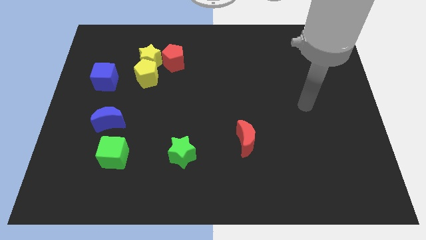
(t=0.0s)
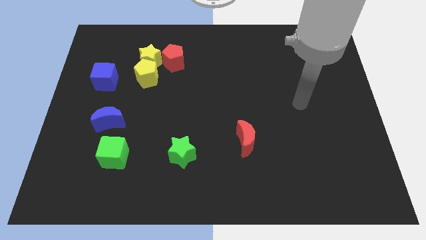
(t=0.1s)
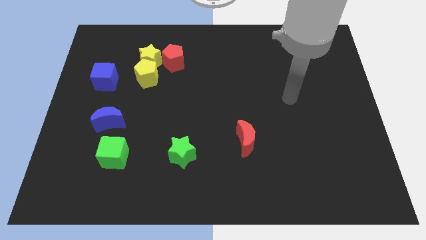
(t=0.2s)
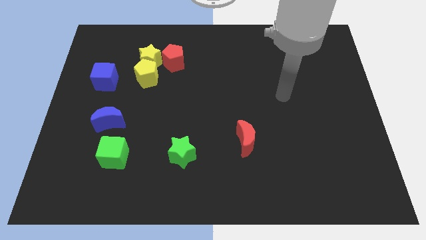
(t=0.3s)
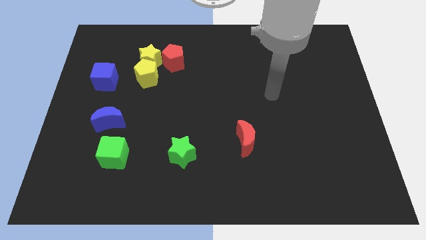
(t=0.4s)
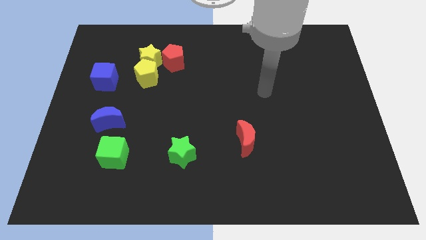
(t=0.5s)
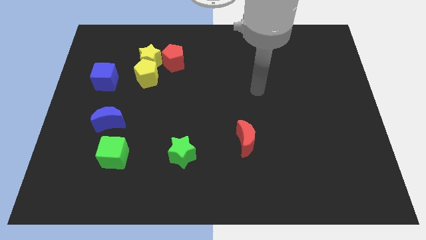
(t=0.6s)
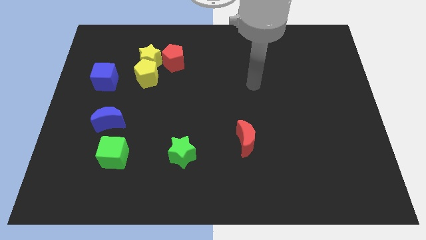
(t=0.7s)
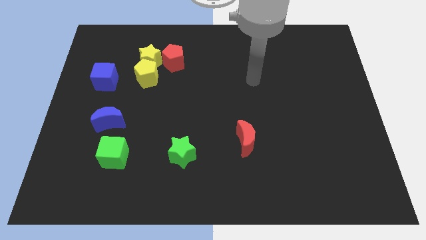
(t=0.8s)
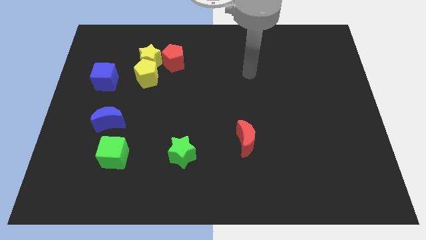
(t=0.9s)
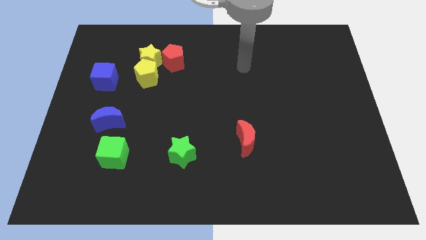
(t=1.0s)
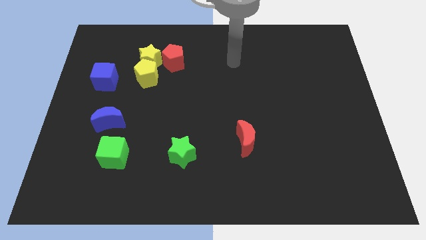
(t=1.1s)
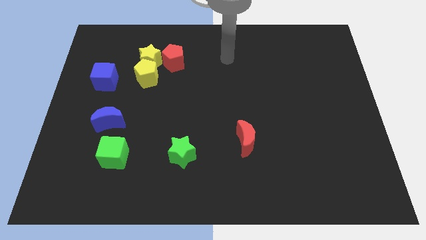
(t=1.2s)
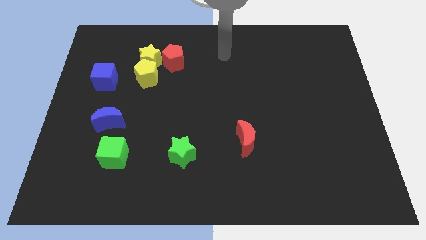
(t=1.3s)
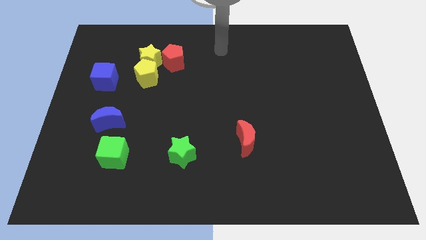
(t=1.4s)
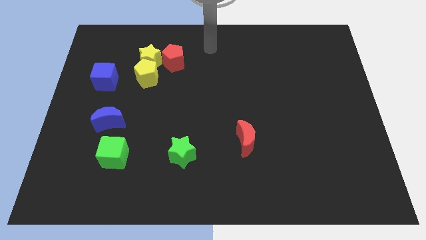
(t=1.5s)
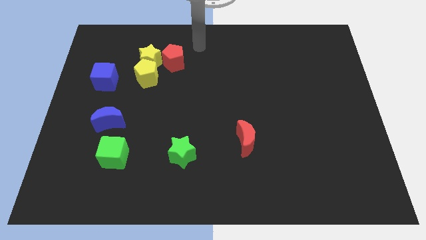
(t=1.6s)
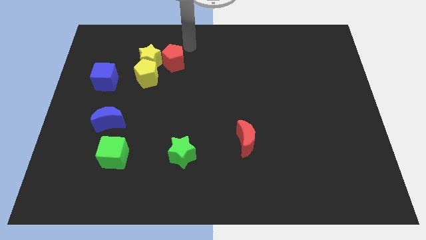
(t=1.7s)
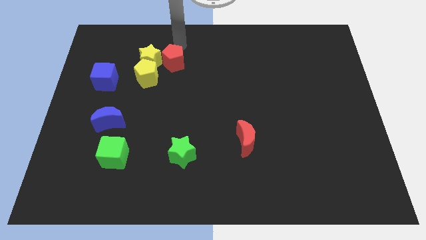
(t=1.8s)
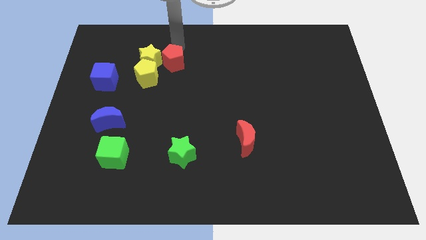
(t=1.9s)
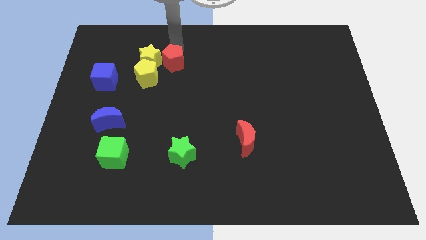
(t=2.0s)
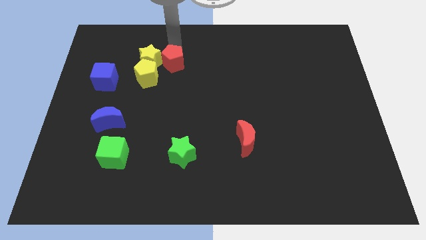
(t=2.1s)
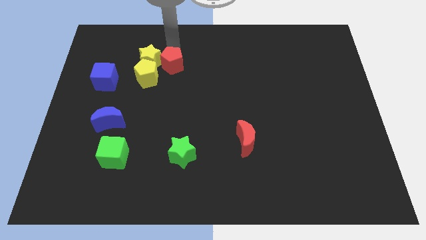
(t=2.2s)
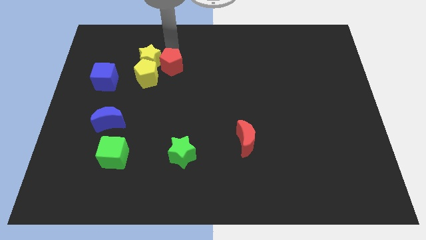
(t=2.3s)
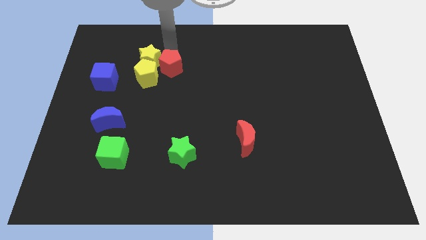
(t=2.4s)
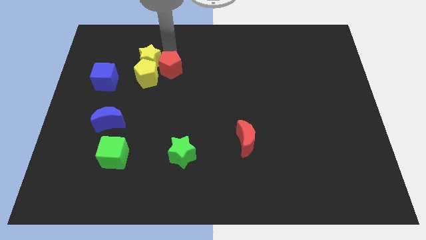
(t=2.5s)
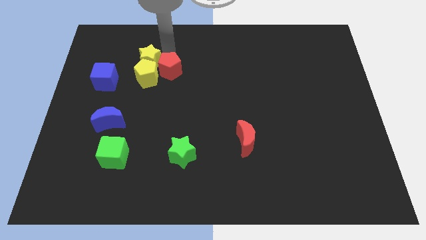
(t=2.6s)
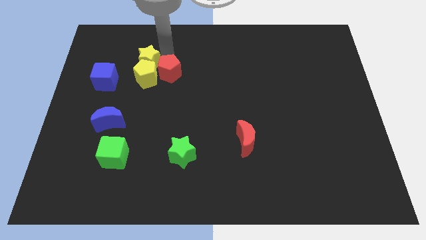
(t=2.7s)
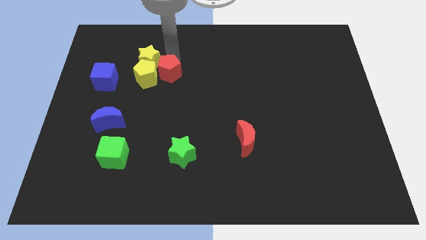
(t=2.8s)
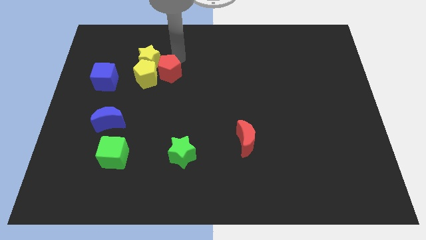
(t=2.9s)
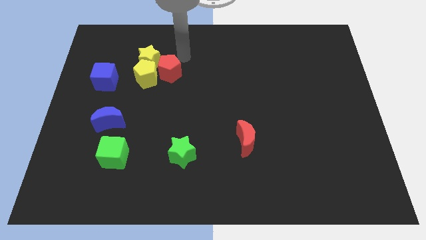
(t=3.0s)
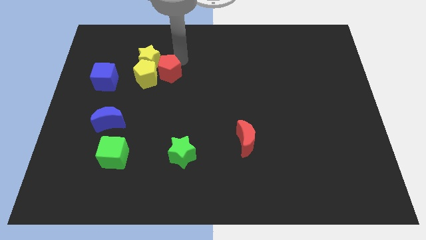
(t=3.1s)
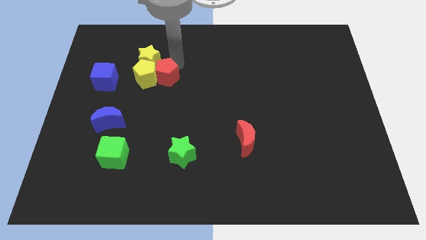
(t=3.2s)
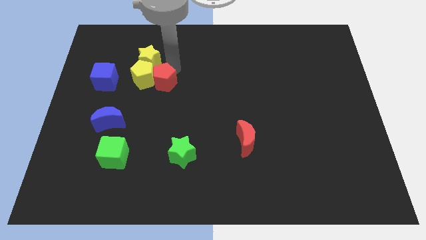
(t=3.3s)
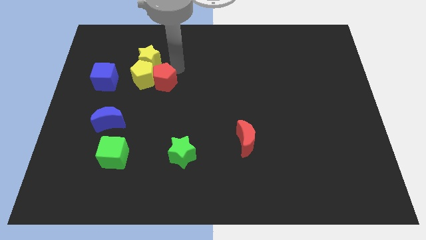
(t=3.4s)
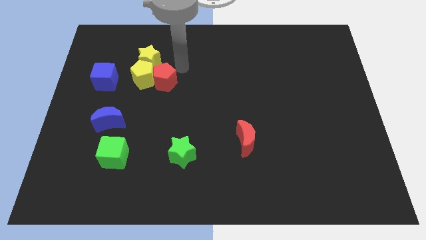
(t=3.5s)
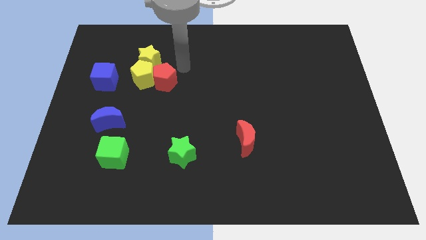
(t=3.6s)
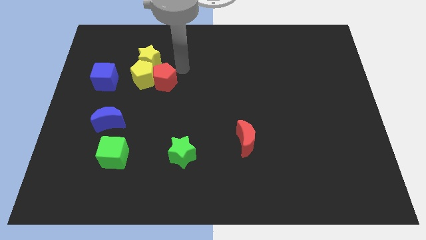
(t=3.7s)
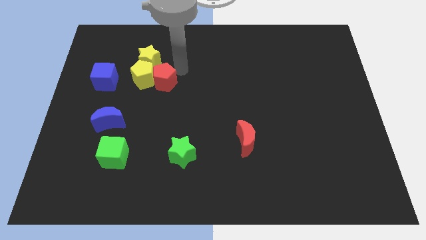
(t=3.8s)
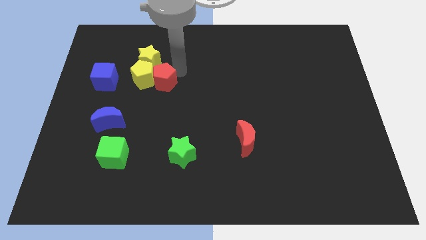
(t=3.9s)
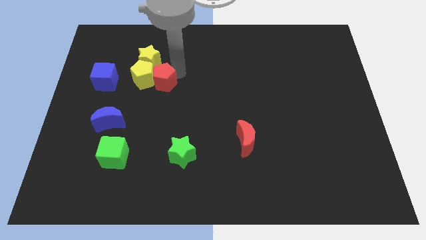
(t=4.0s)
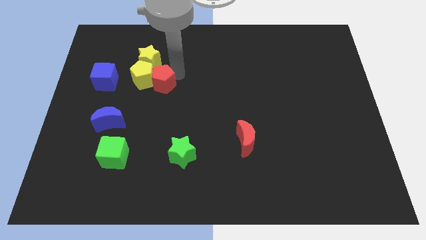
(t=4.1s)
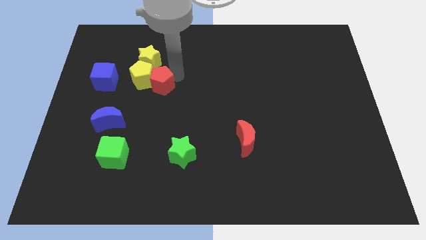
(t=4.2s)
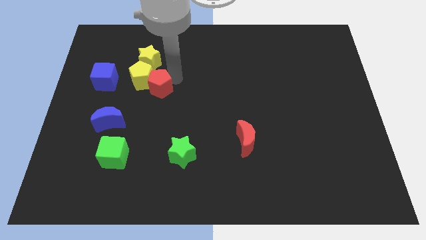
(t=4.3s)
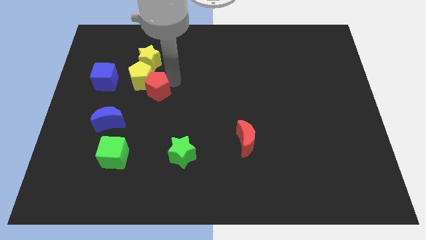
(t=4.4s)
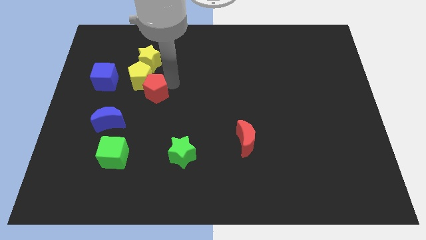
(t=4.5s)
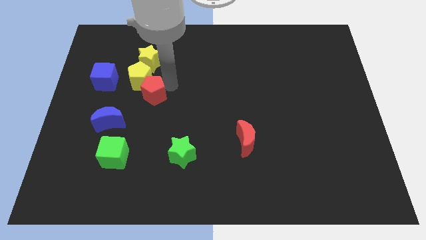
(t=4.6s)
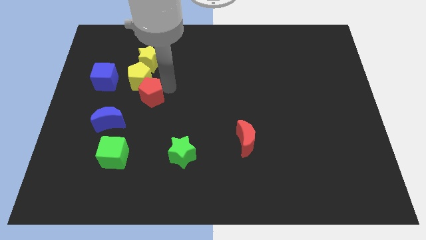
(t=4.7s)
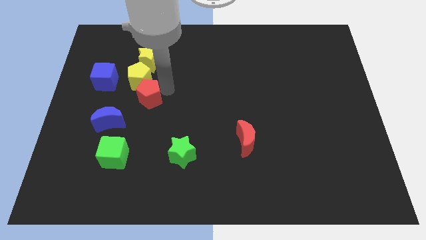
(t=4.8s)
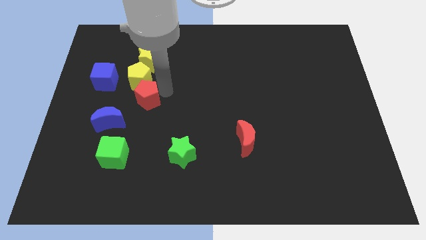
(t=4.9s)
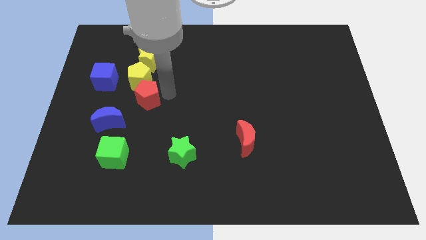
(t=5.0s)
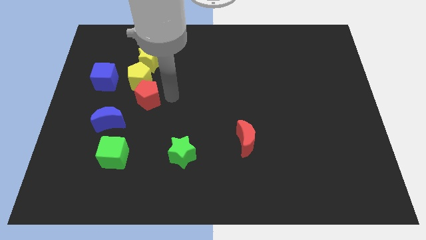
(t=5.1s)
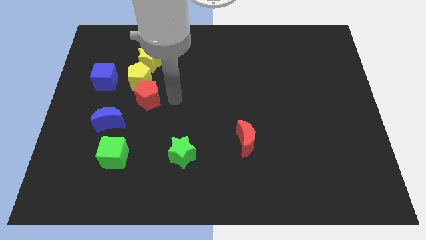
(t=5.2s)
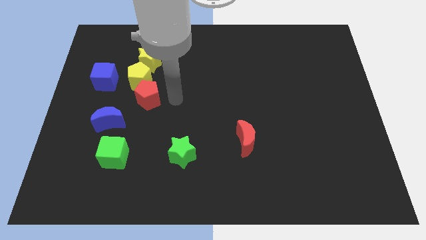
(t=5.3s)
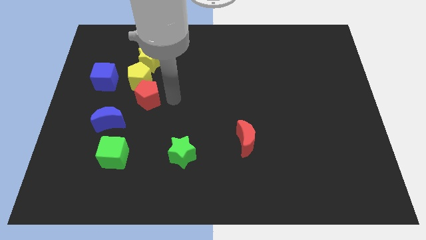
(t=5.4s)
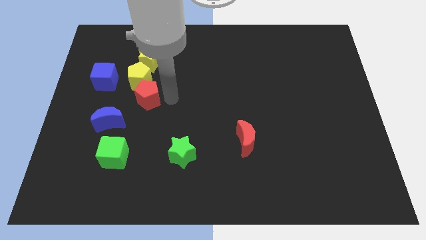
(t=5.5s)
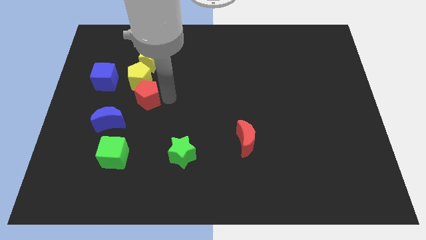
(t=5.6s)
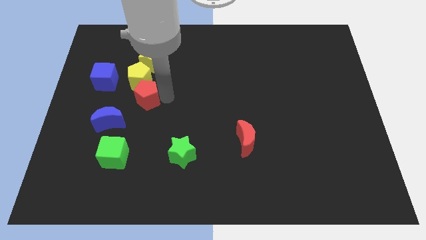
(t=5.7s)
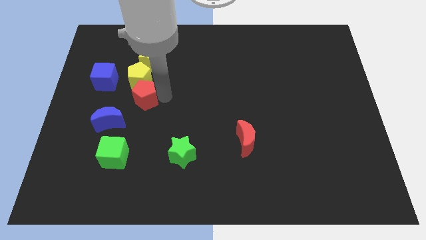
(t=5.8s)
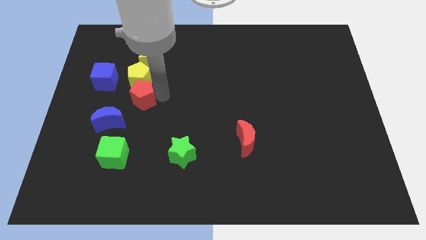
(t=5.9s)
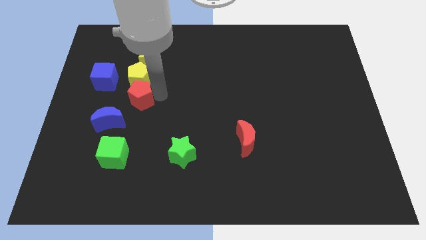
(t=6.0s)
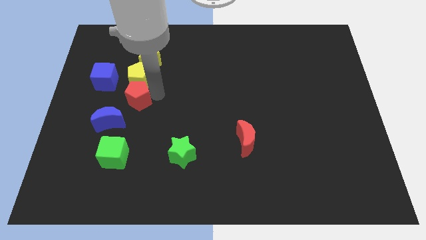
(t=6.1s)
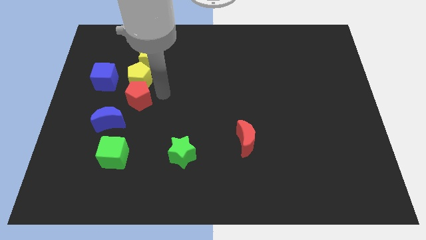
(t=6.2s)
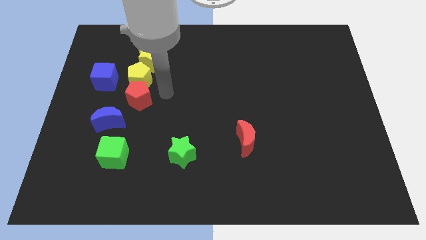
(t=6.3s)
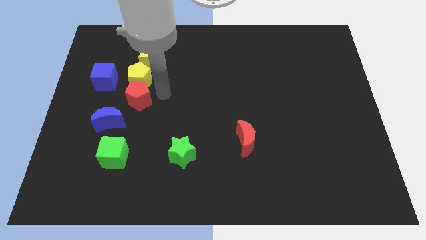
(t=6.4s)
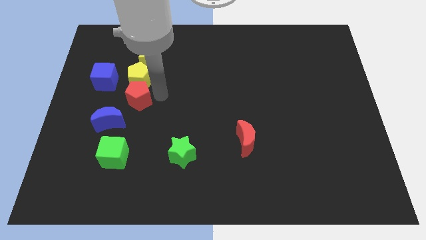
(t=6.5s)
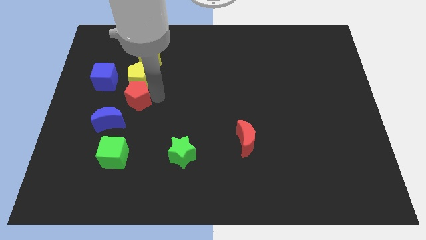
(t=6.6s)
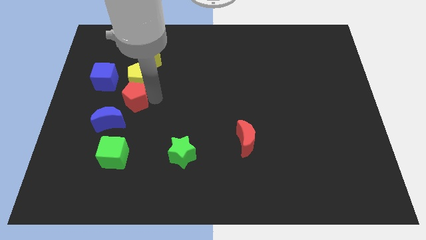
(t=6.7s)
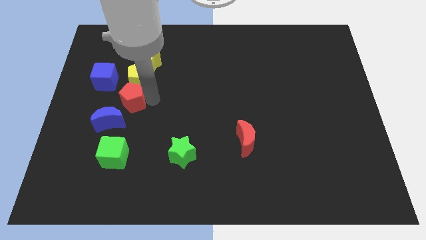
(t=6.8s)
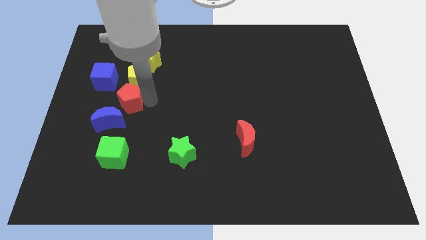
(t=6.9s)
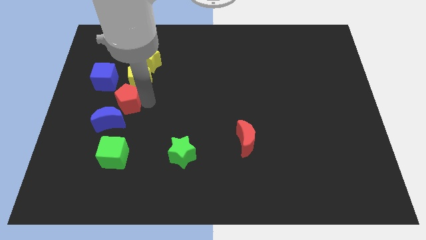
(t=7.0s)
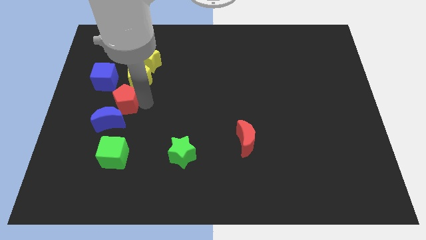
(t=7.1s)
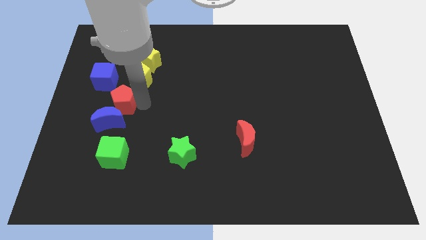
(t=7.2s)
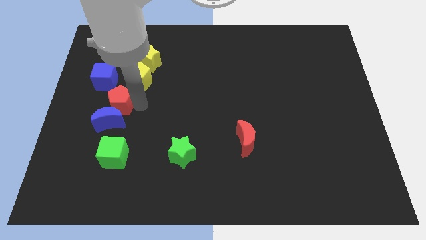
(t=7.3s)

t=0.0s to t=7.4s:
push the red pentagon to the bottom of the blue cube
